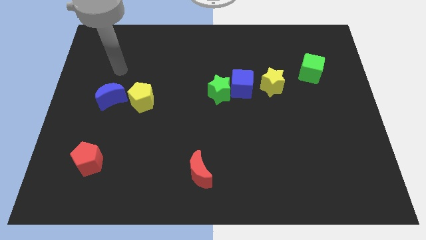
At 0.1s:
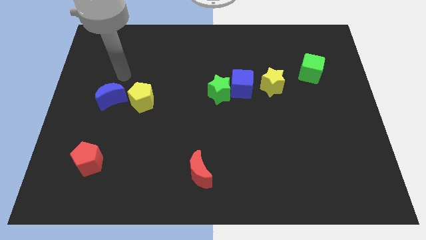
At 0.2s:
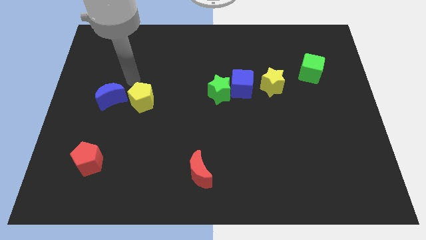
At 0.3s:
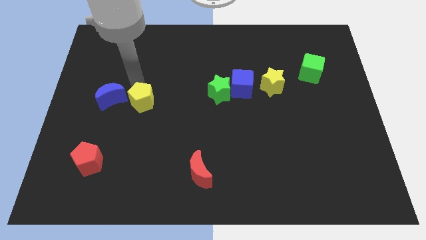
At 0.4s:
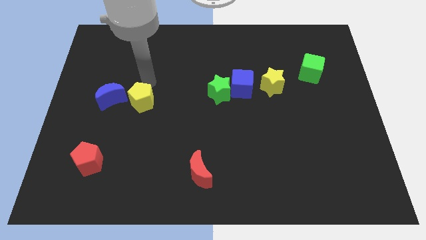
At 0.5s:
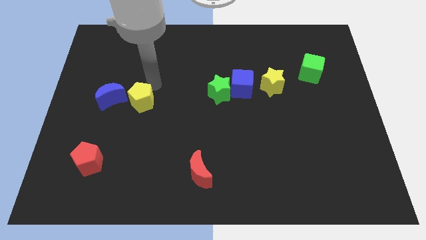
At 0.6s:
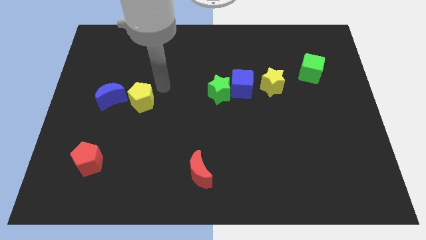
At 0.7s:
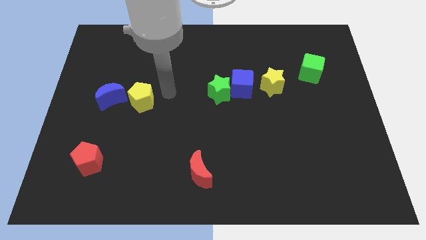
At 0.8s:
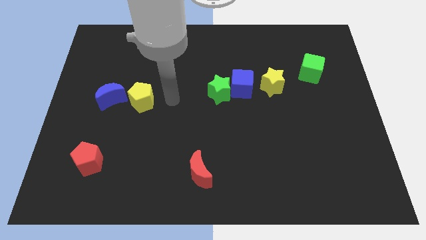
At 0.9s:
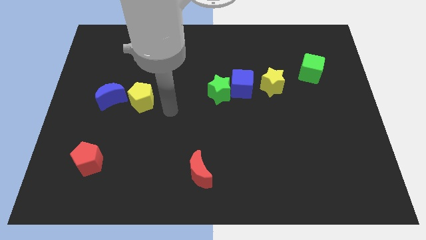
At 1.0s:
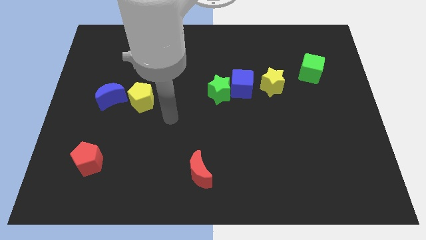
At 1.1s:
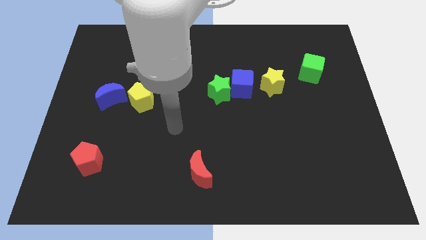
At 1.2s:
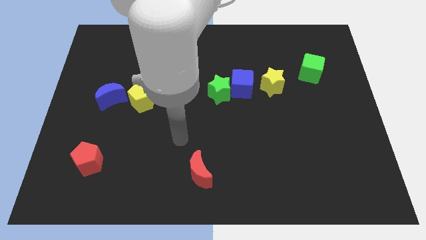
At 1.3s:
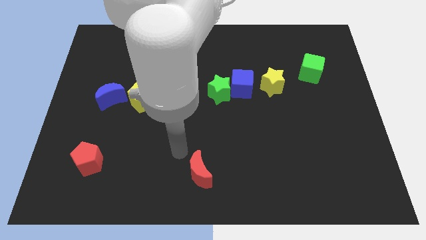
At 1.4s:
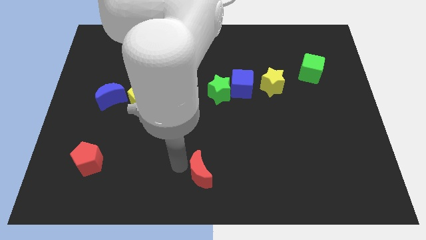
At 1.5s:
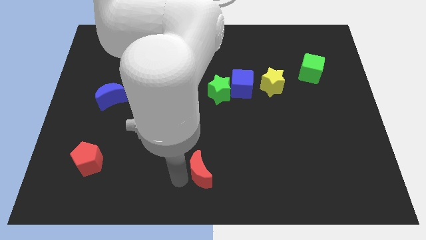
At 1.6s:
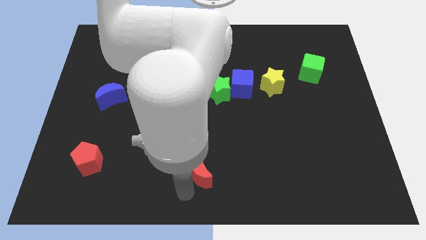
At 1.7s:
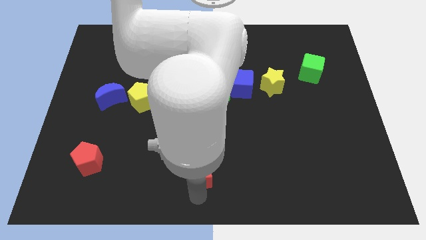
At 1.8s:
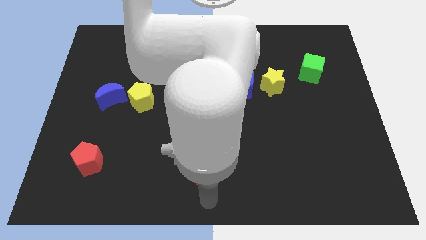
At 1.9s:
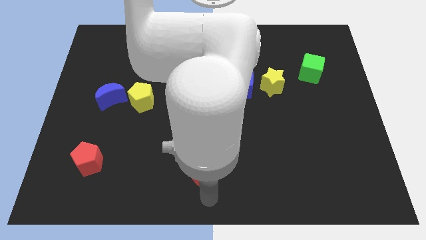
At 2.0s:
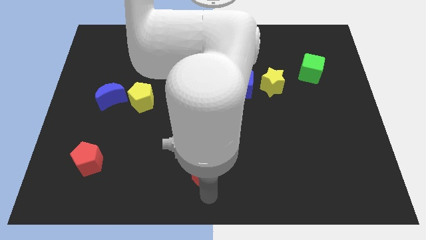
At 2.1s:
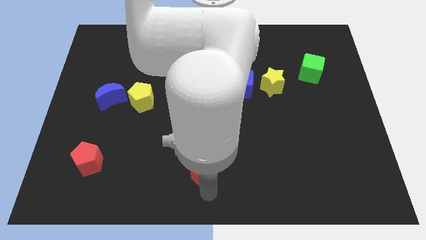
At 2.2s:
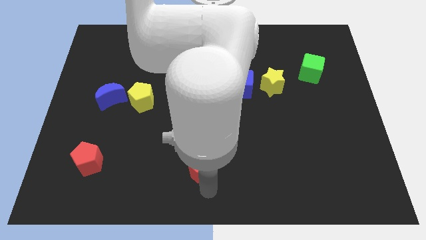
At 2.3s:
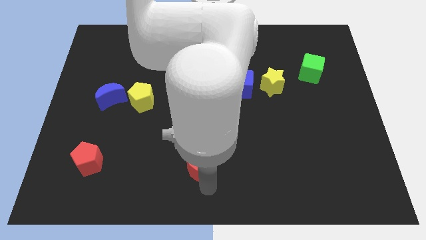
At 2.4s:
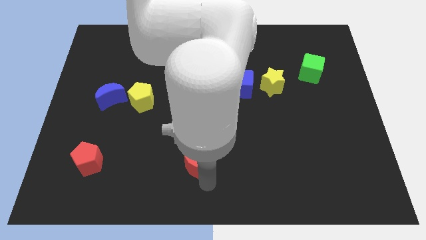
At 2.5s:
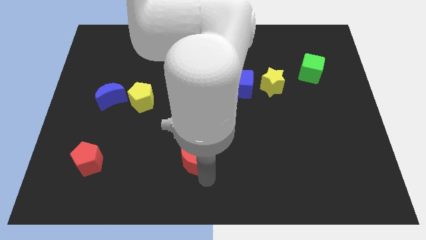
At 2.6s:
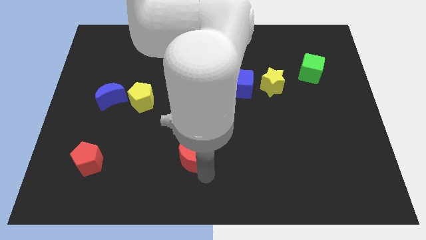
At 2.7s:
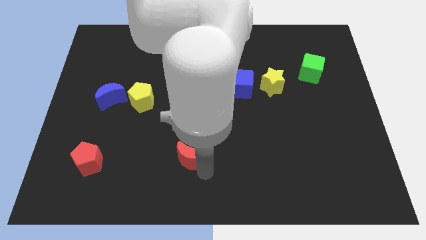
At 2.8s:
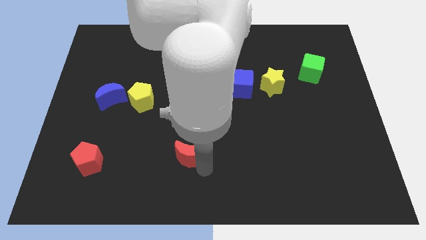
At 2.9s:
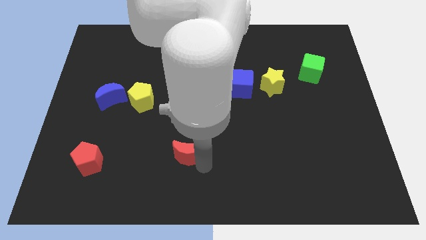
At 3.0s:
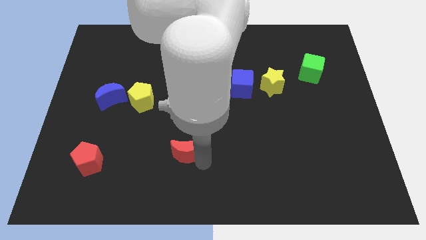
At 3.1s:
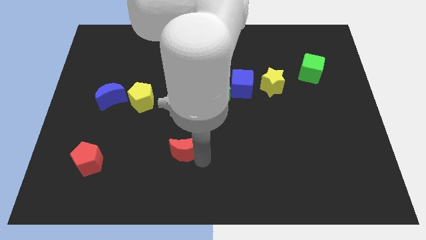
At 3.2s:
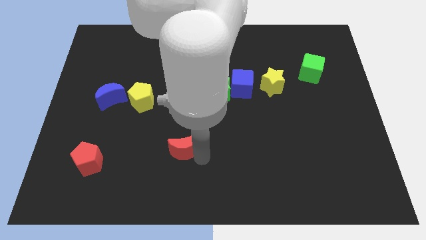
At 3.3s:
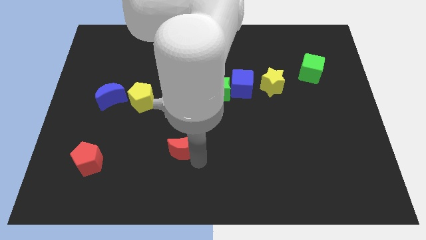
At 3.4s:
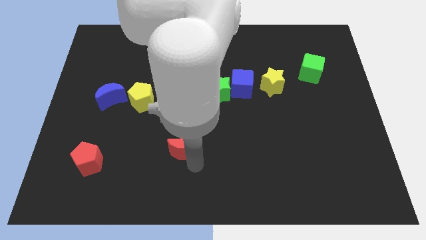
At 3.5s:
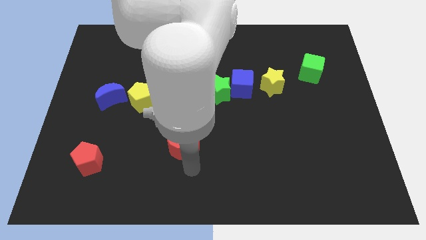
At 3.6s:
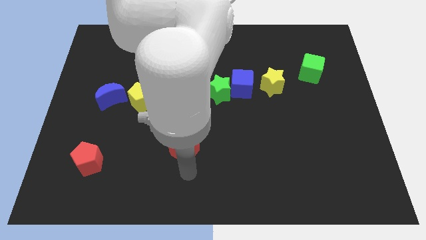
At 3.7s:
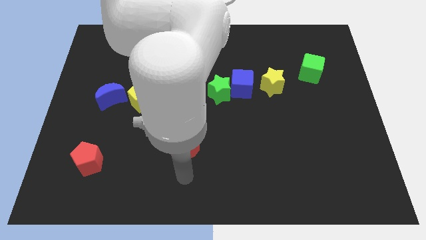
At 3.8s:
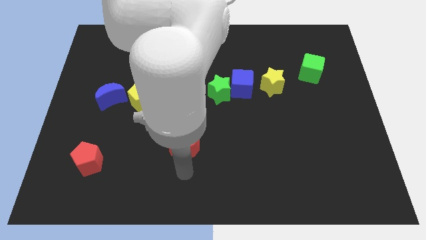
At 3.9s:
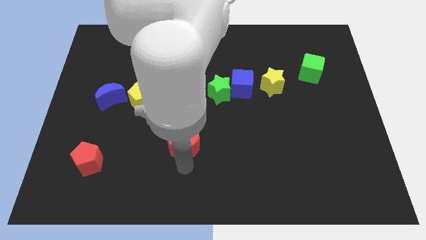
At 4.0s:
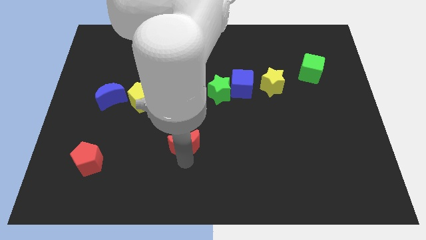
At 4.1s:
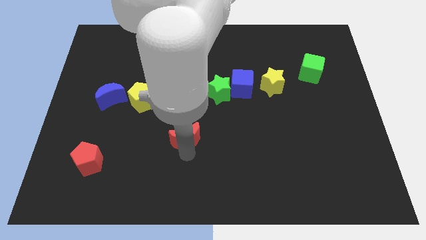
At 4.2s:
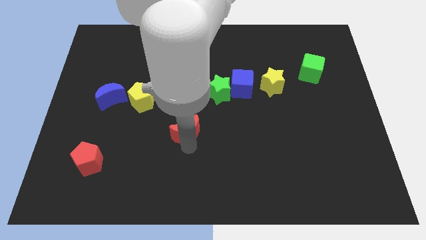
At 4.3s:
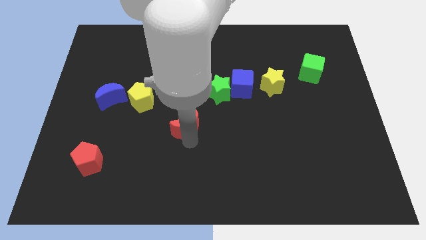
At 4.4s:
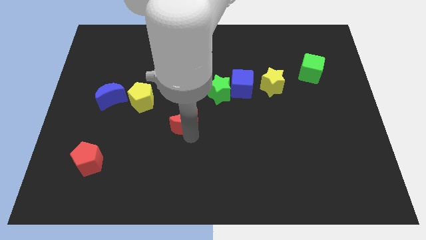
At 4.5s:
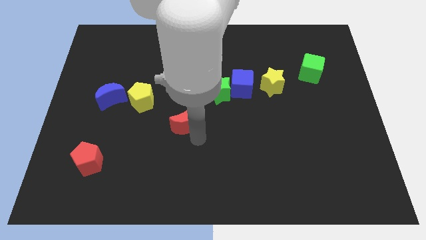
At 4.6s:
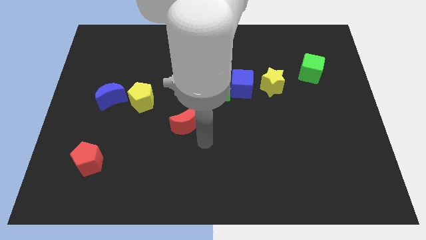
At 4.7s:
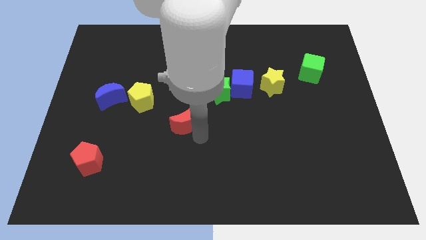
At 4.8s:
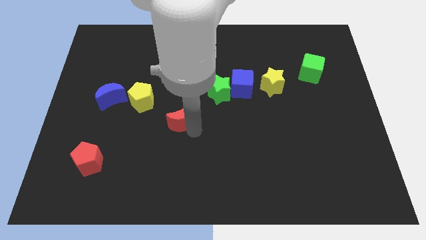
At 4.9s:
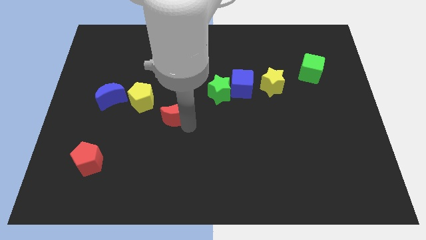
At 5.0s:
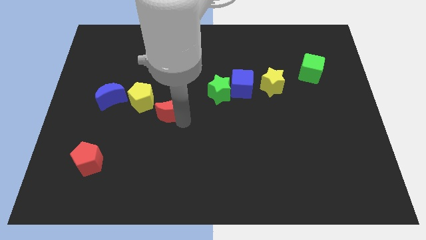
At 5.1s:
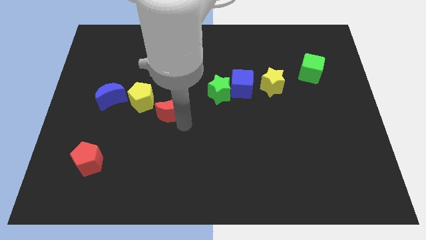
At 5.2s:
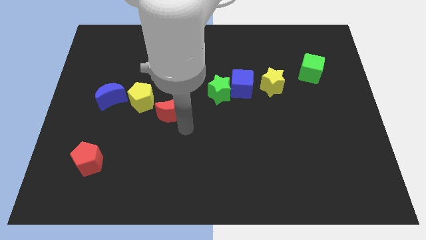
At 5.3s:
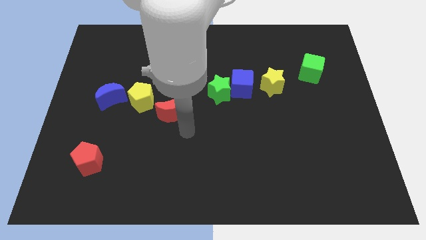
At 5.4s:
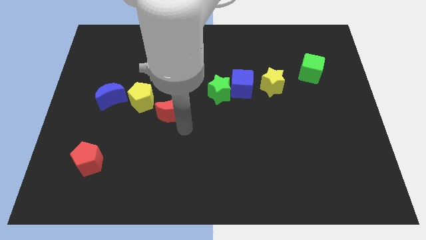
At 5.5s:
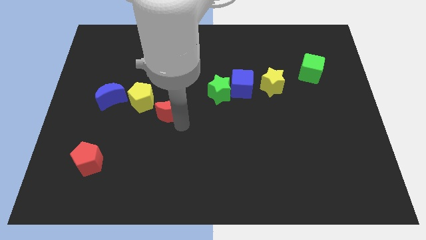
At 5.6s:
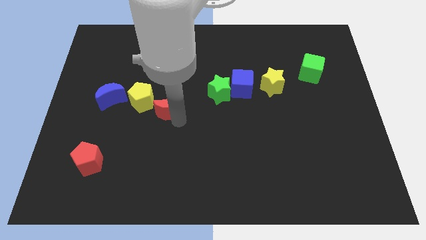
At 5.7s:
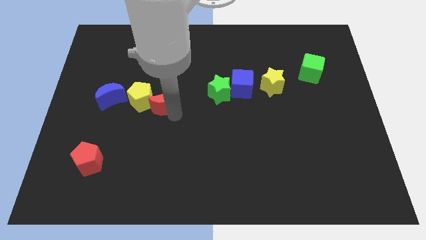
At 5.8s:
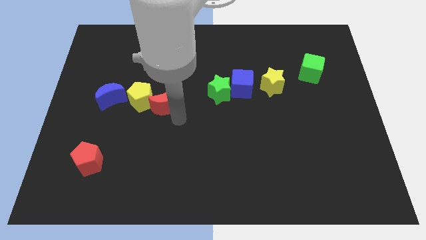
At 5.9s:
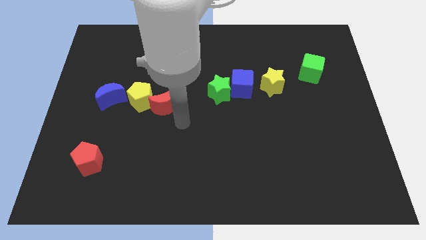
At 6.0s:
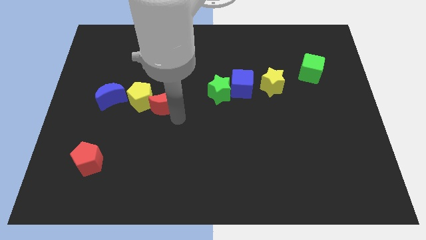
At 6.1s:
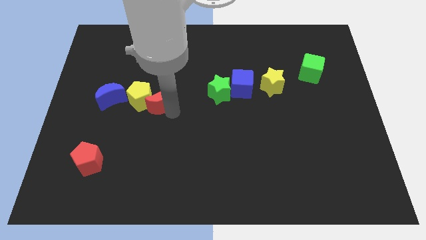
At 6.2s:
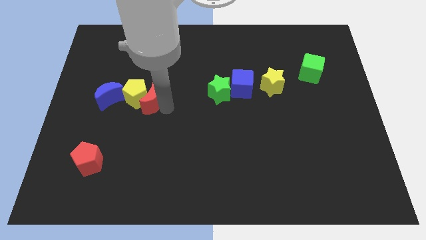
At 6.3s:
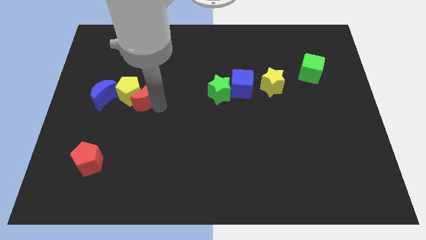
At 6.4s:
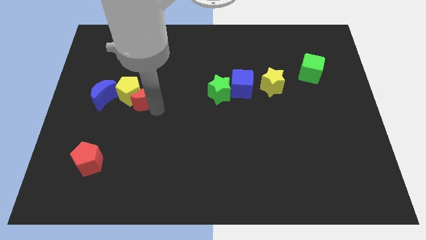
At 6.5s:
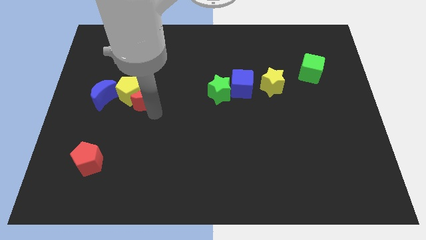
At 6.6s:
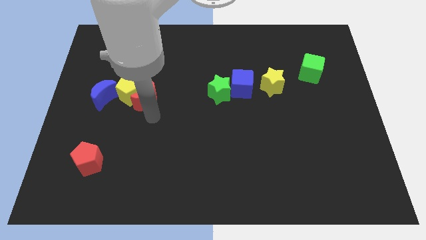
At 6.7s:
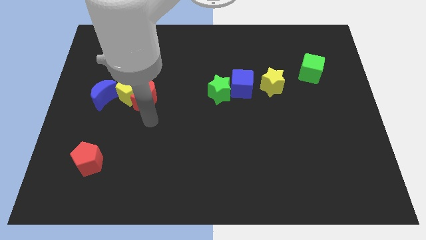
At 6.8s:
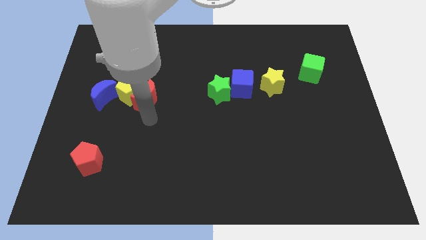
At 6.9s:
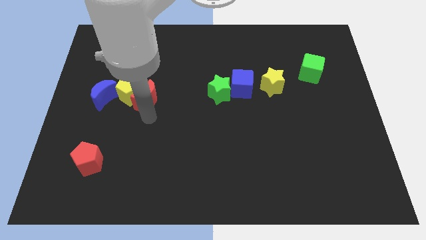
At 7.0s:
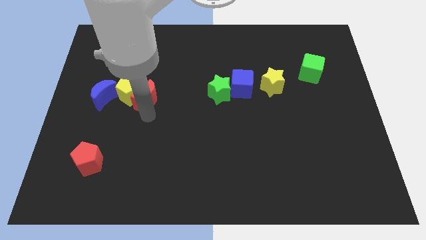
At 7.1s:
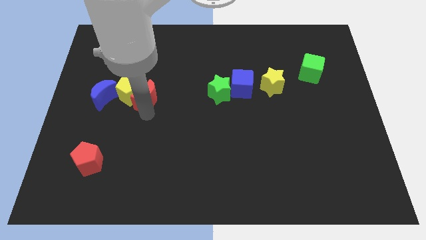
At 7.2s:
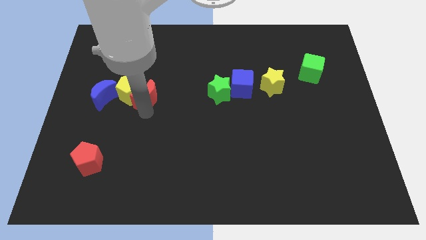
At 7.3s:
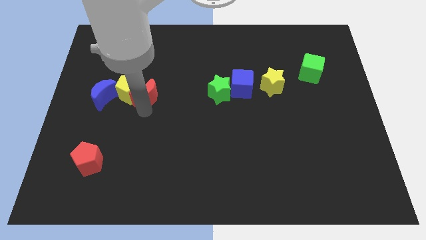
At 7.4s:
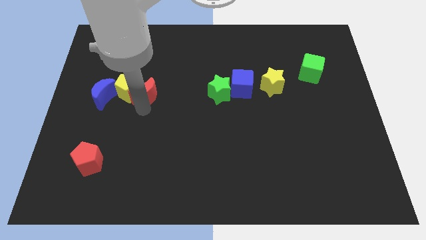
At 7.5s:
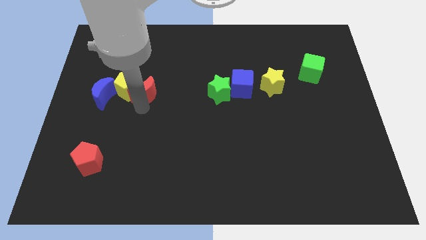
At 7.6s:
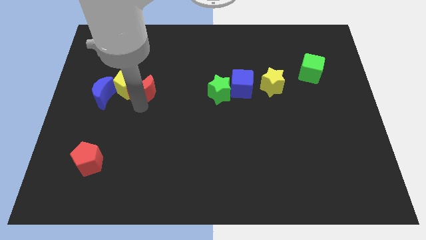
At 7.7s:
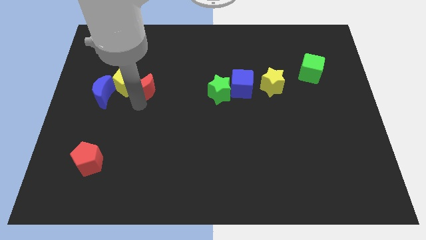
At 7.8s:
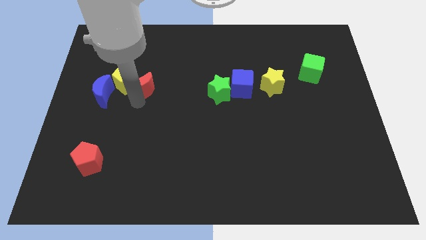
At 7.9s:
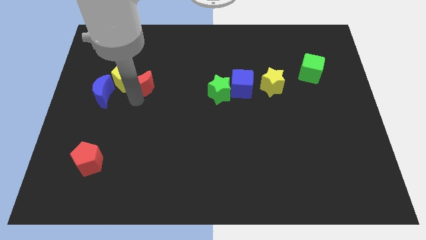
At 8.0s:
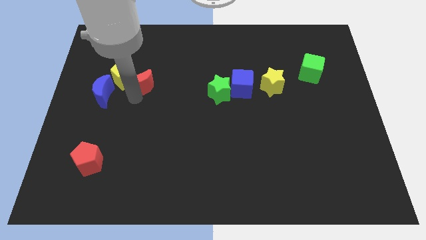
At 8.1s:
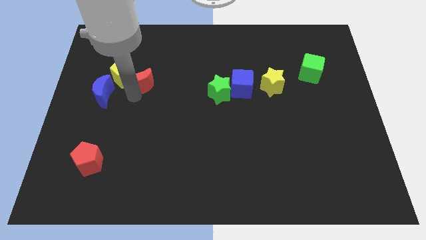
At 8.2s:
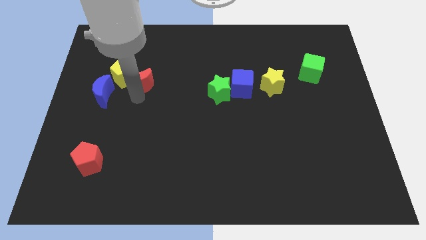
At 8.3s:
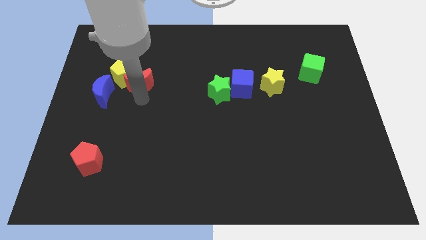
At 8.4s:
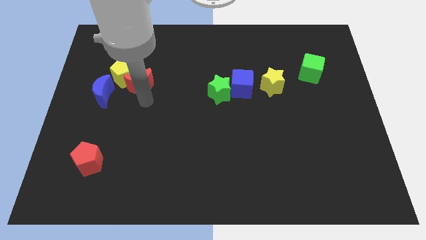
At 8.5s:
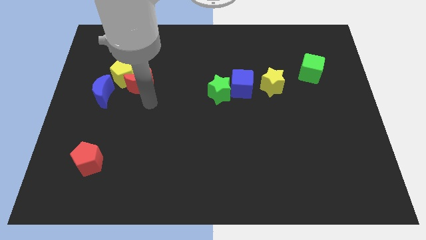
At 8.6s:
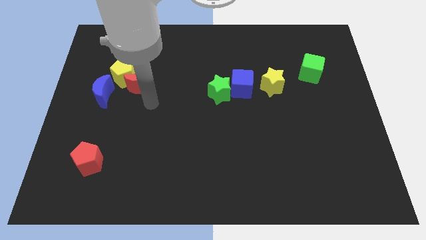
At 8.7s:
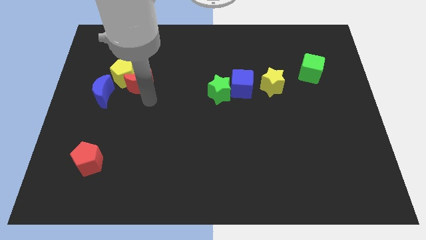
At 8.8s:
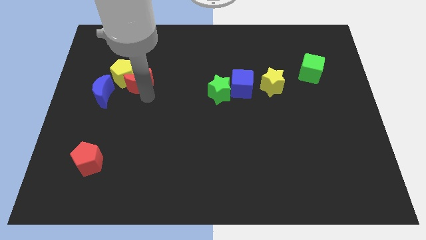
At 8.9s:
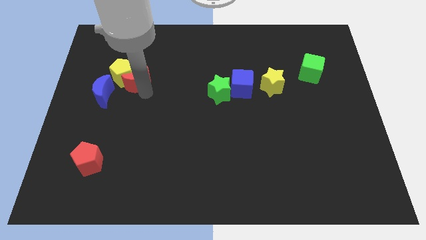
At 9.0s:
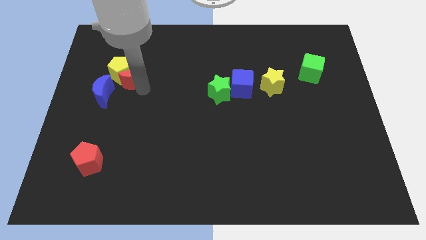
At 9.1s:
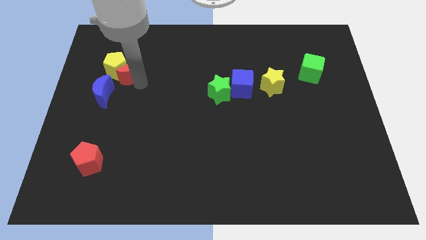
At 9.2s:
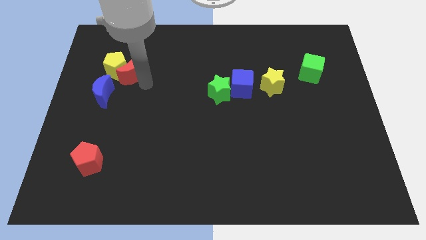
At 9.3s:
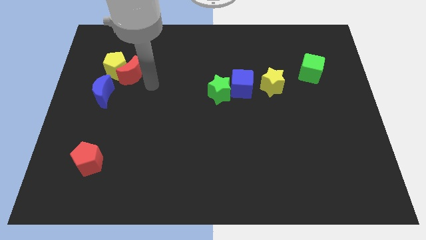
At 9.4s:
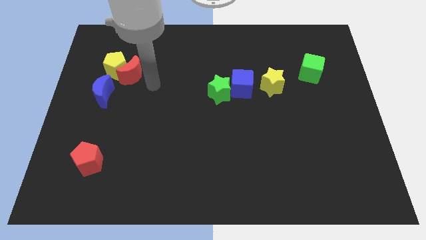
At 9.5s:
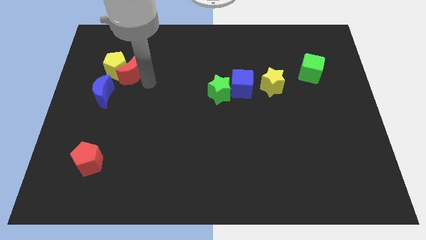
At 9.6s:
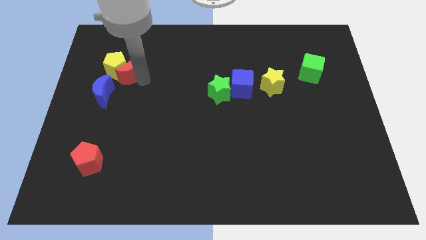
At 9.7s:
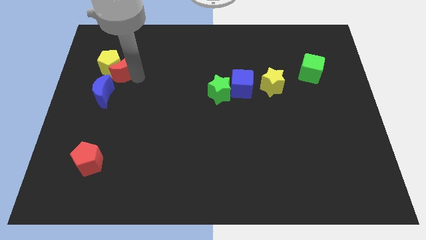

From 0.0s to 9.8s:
push the red moon to the top side of the blue moon
